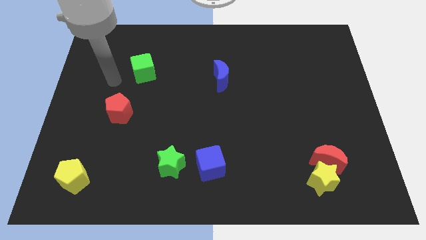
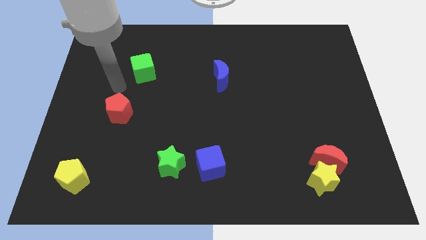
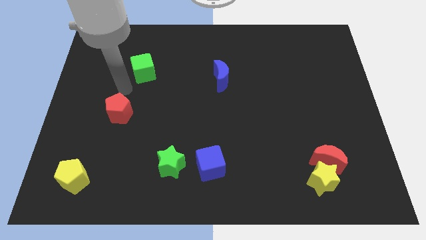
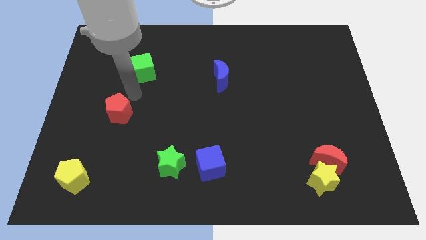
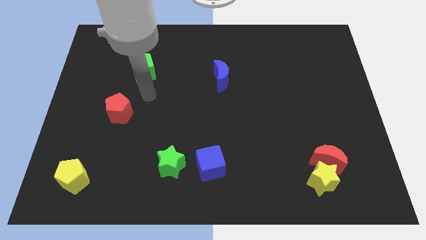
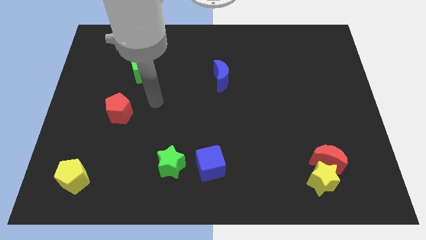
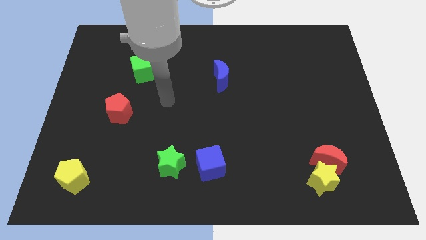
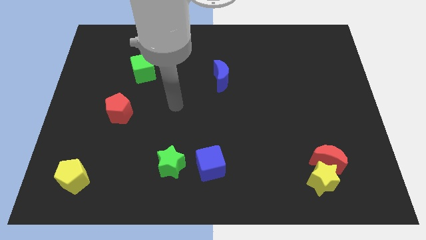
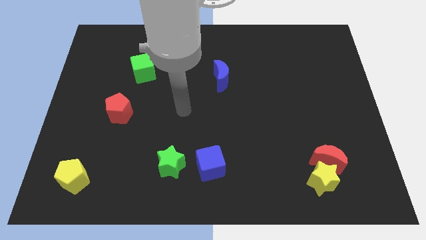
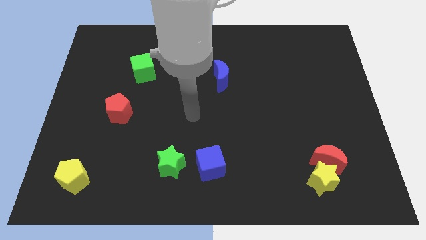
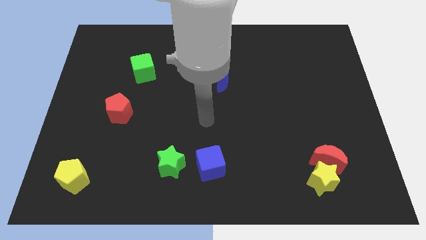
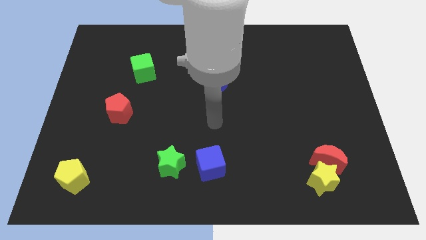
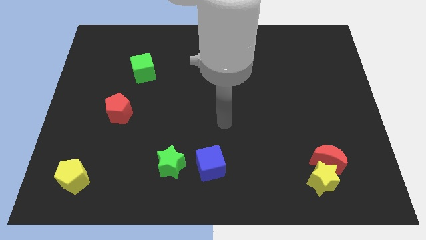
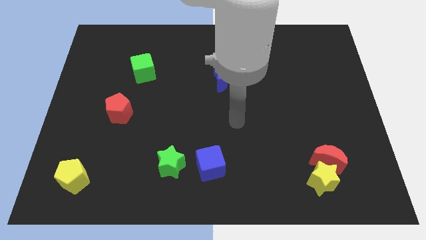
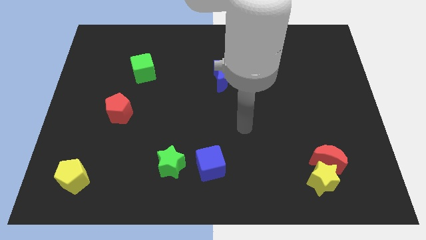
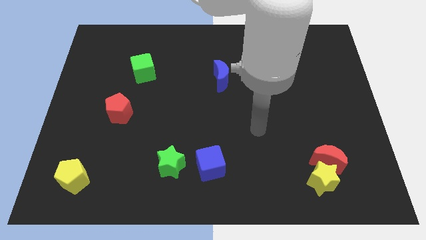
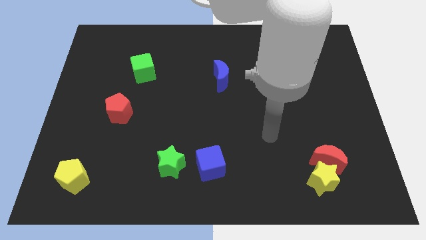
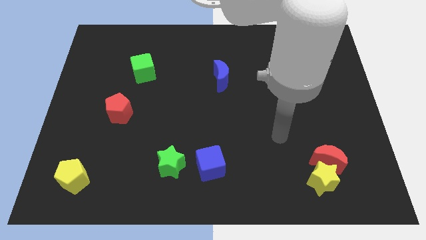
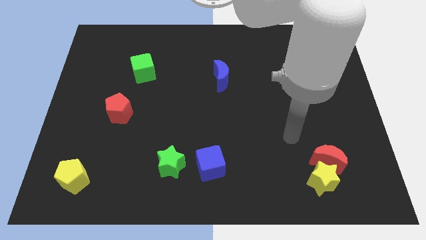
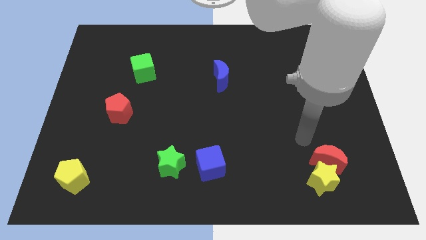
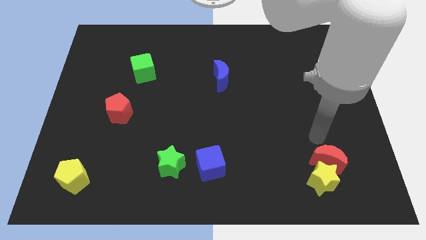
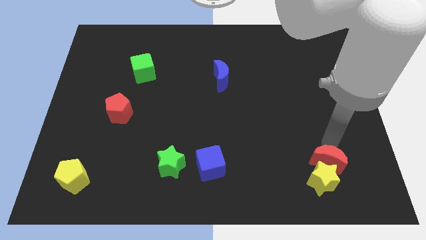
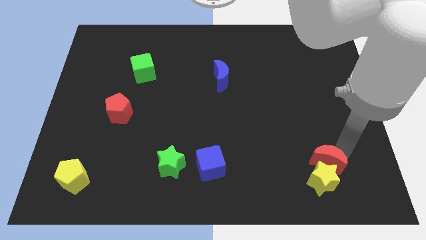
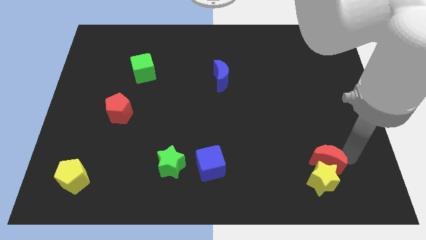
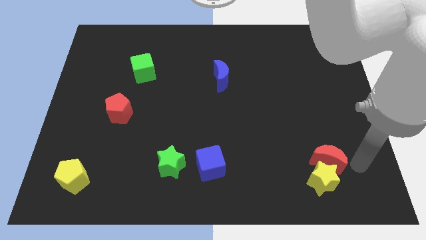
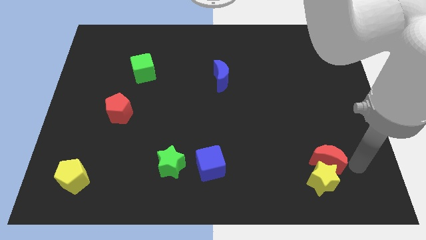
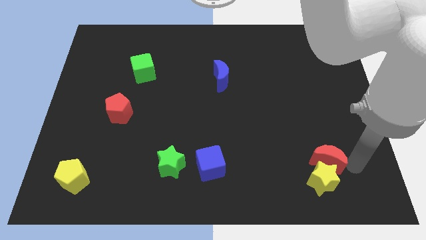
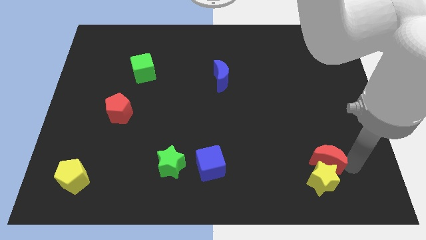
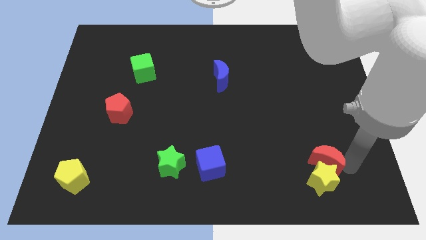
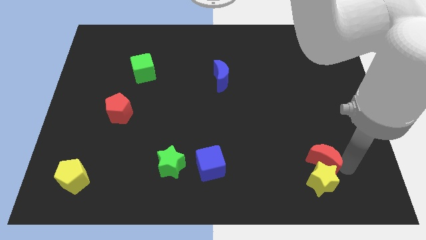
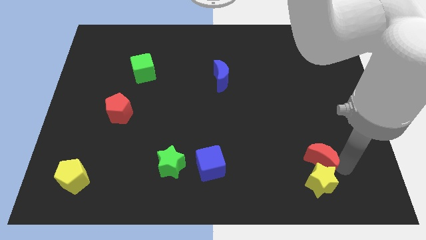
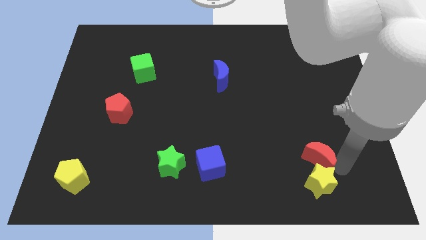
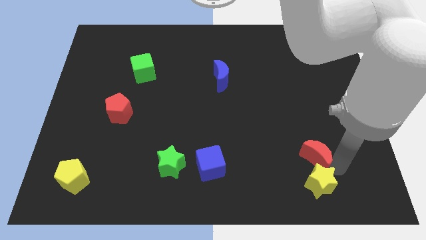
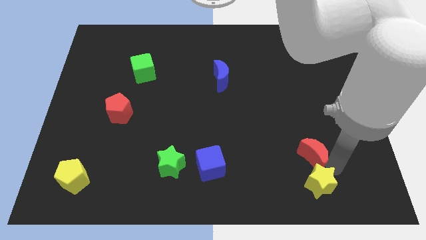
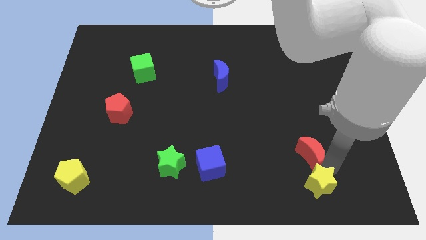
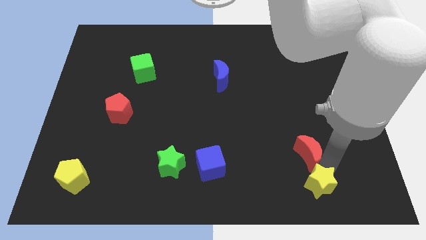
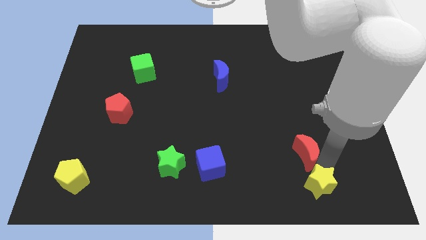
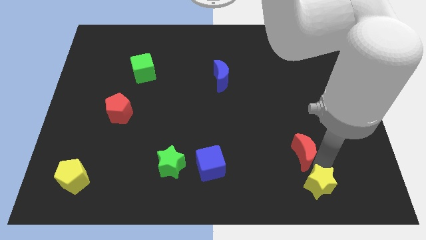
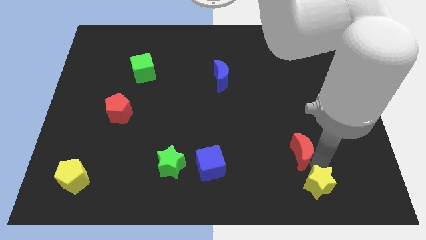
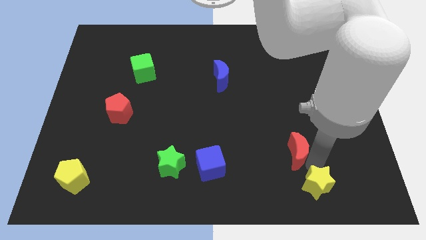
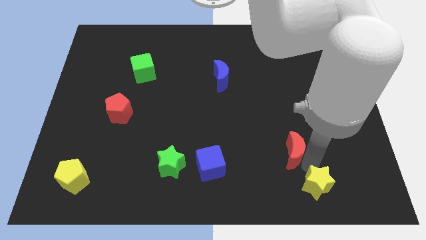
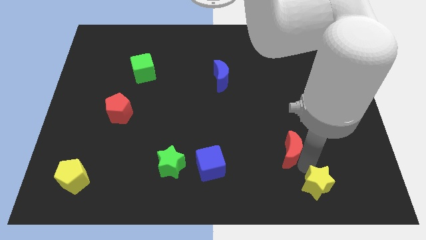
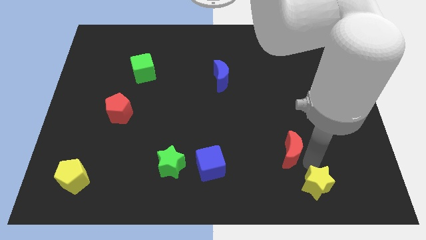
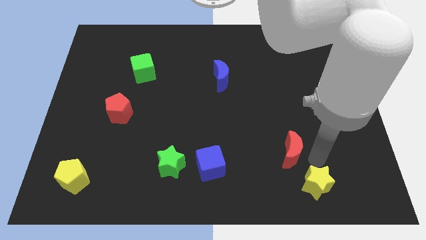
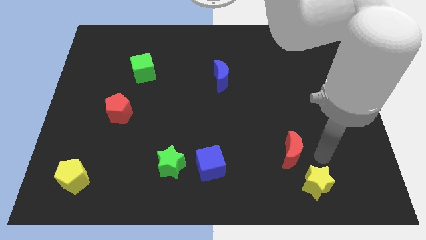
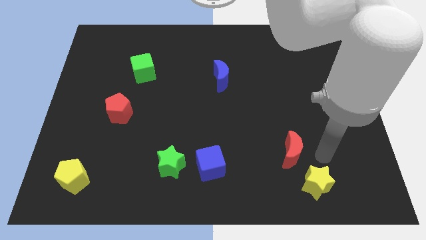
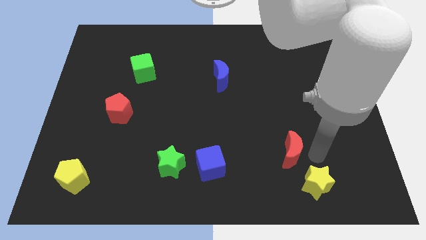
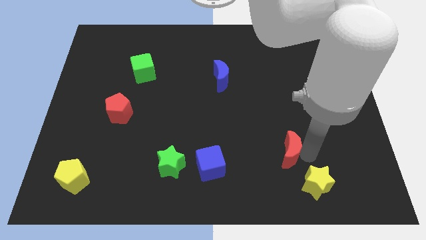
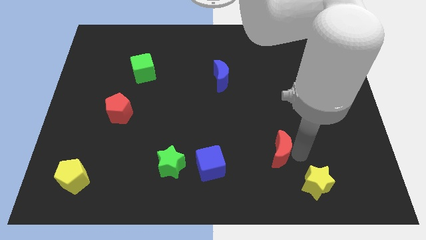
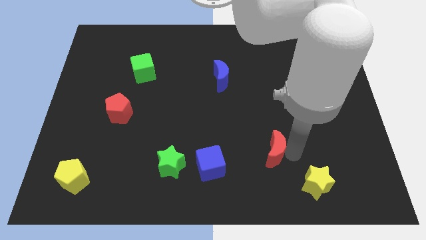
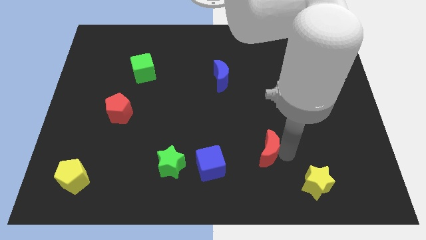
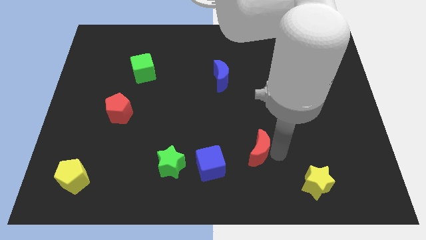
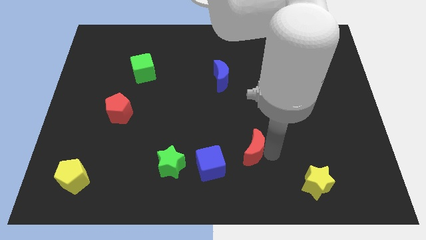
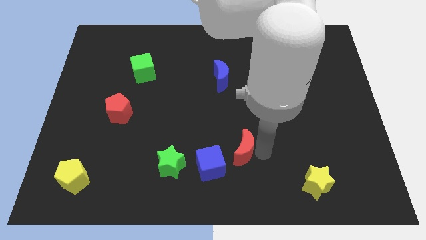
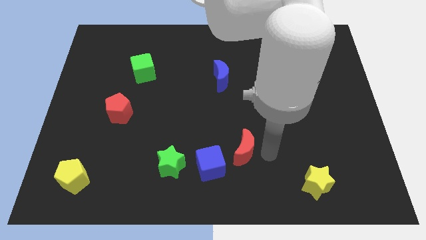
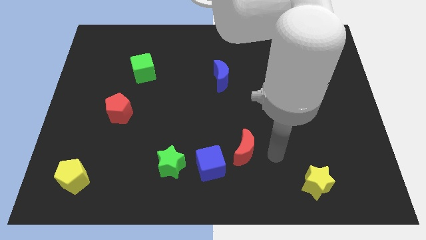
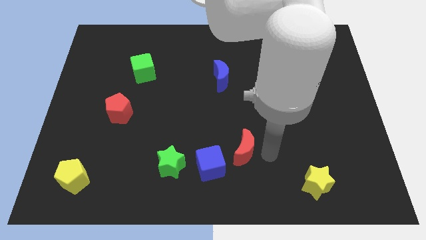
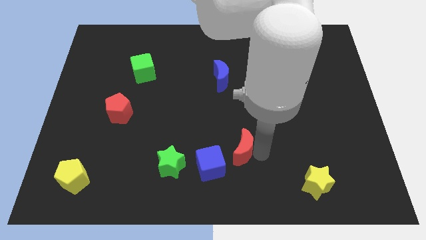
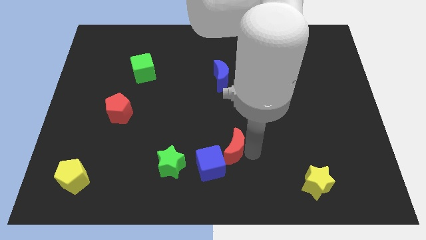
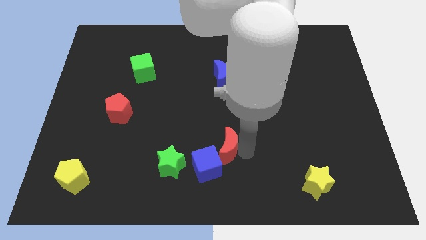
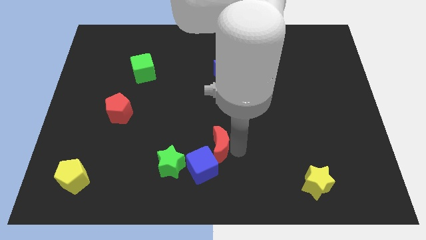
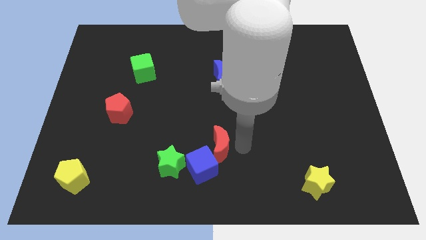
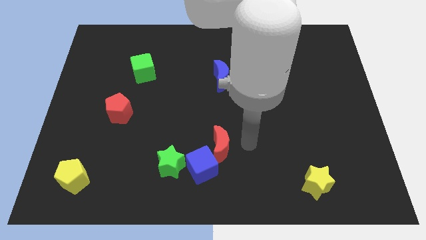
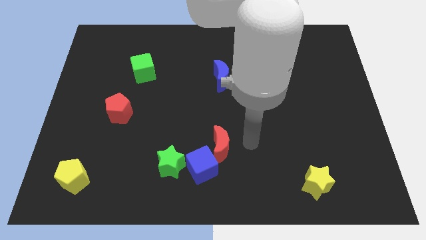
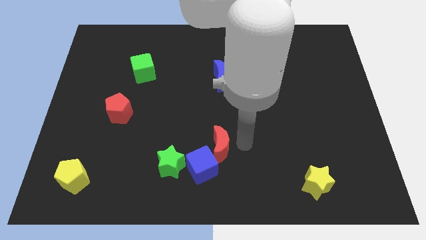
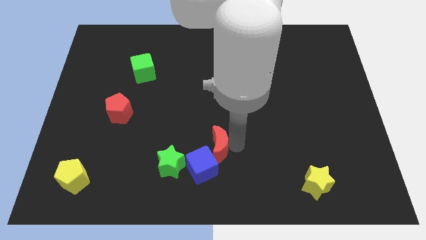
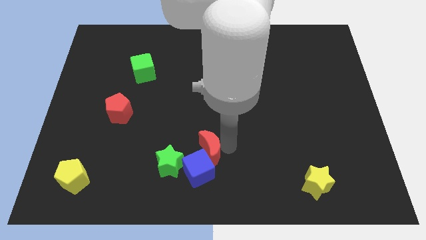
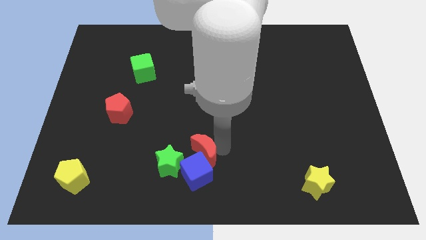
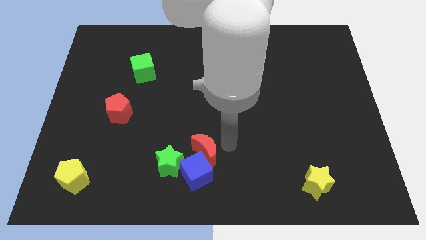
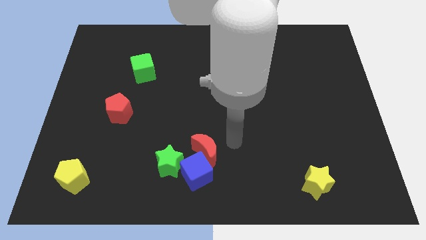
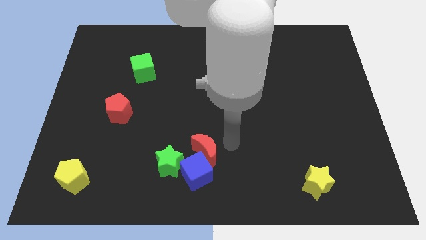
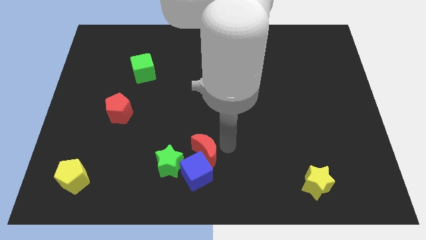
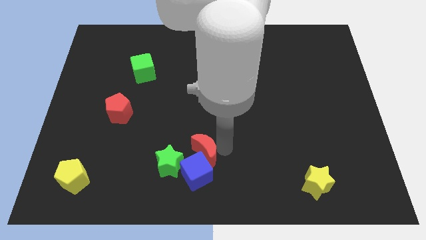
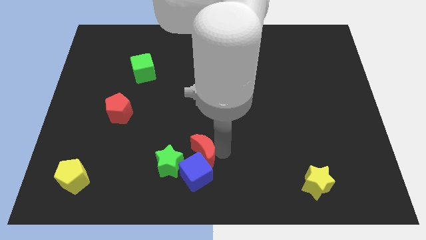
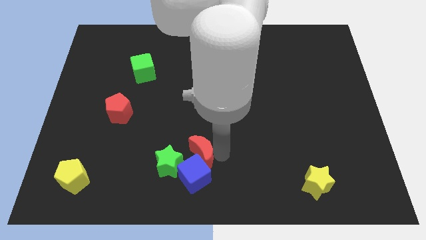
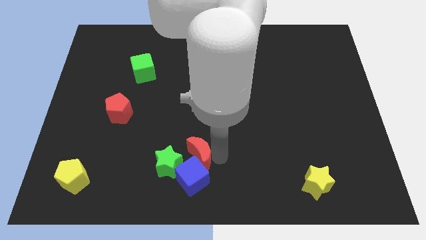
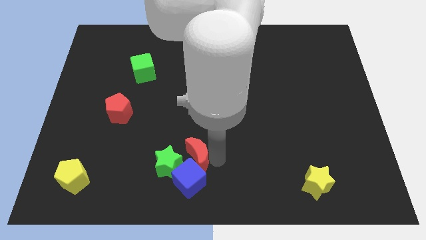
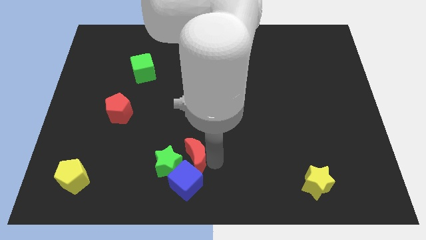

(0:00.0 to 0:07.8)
slide the red moon close to the green star

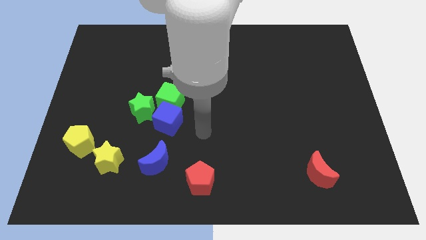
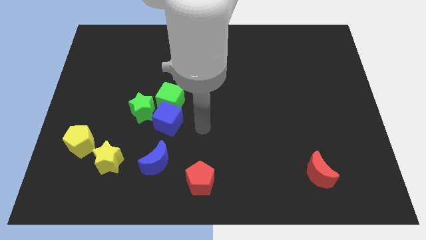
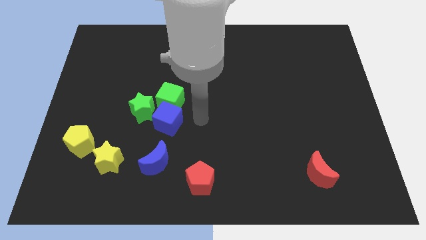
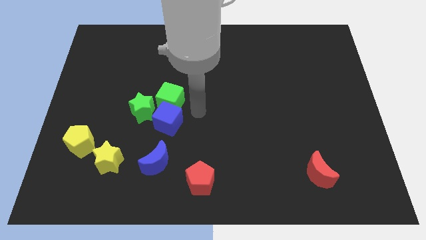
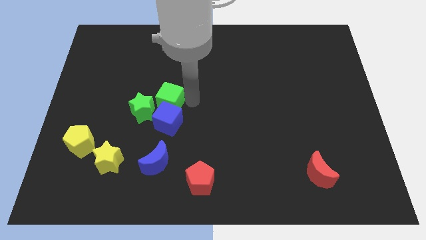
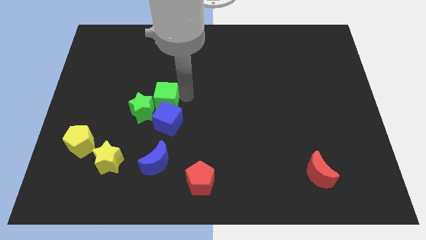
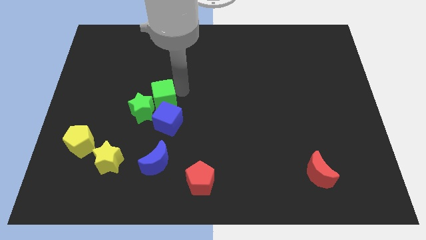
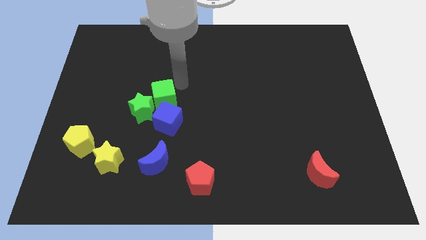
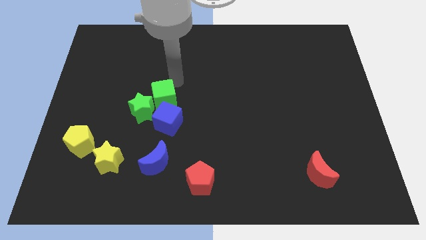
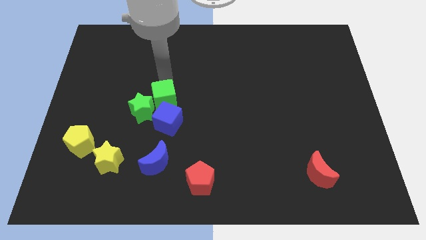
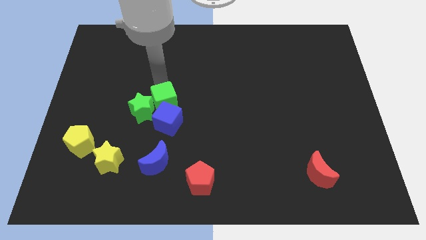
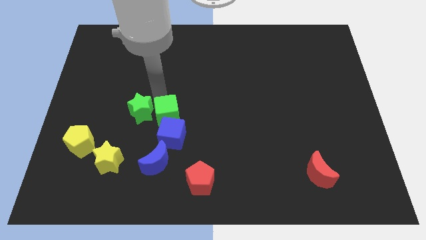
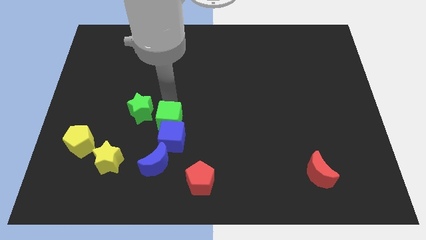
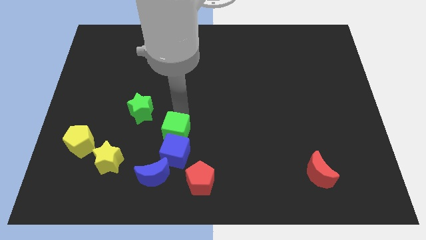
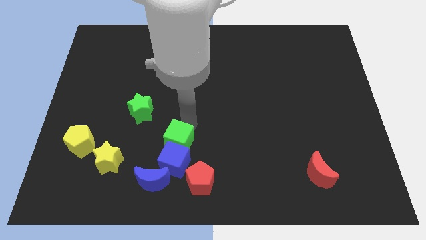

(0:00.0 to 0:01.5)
move the blue cube close to the blue moon
